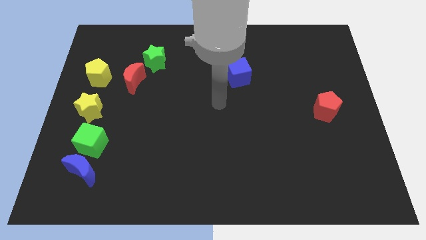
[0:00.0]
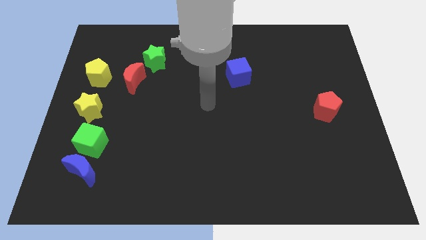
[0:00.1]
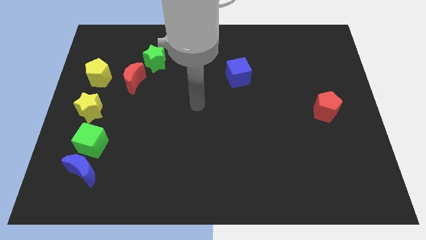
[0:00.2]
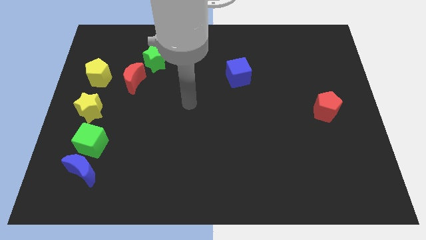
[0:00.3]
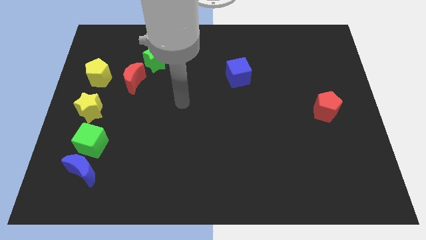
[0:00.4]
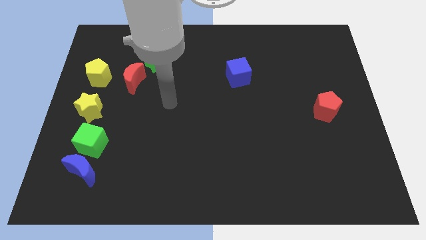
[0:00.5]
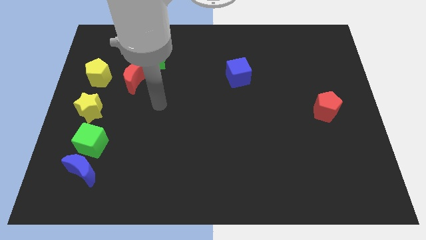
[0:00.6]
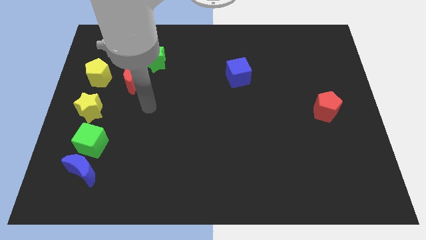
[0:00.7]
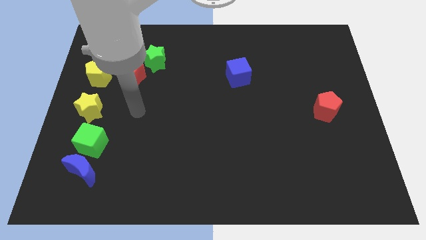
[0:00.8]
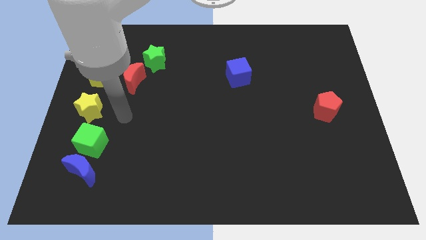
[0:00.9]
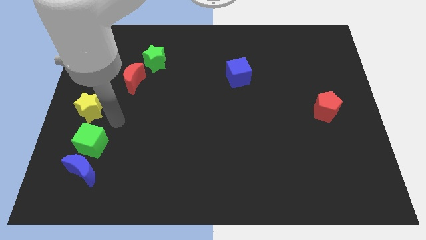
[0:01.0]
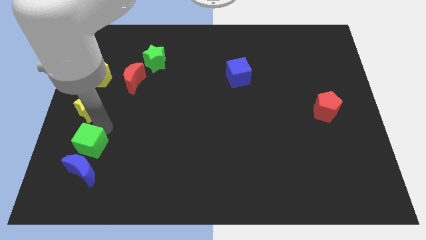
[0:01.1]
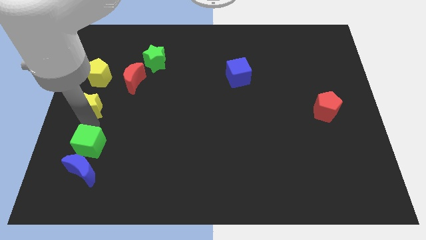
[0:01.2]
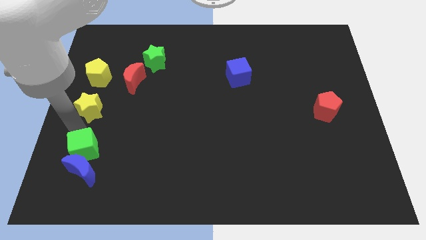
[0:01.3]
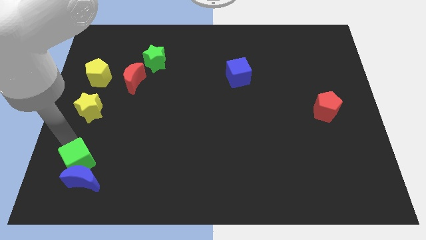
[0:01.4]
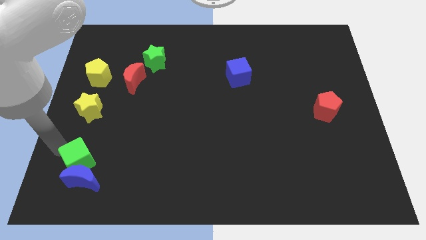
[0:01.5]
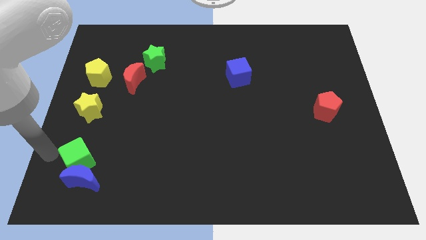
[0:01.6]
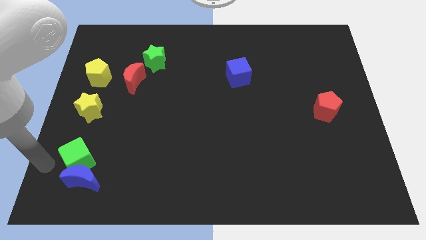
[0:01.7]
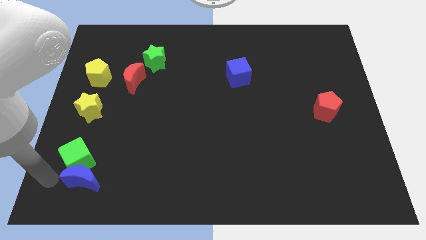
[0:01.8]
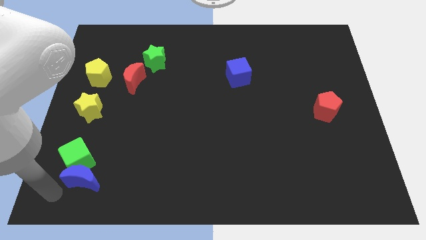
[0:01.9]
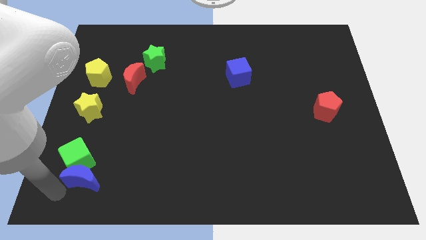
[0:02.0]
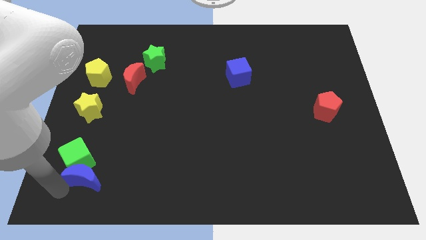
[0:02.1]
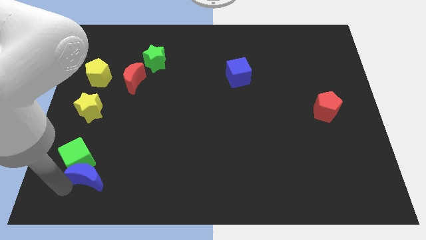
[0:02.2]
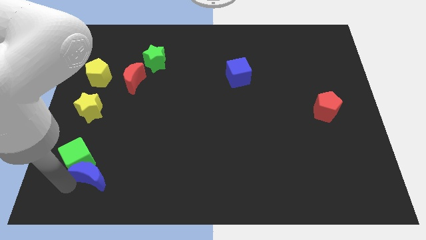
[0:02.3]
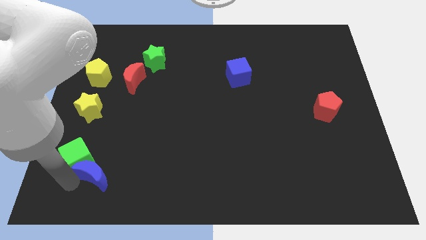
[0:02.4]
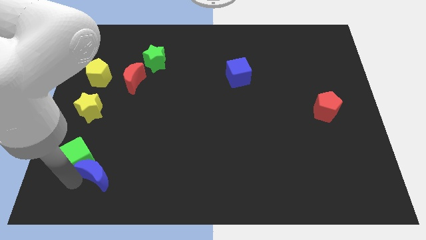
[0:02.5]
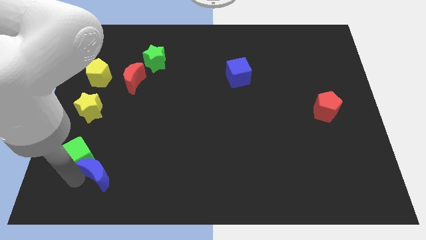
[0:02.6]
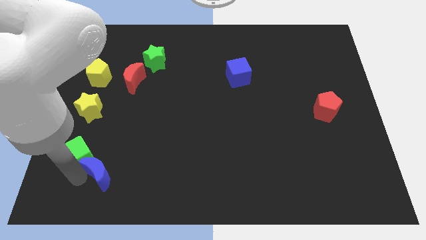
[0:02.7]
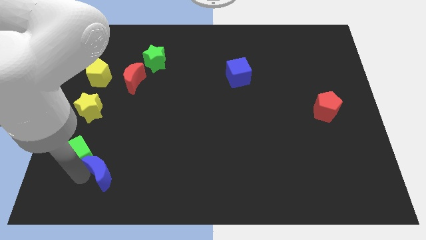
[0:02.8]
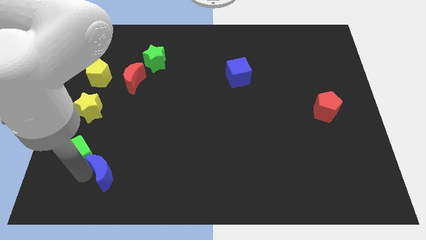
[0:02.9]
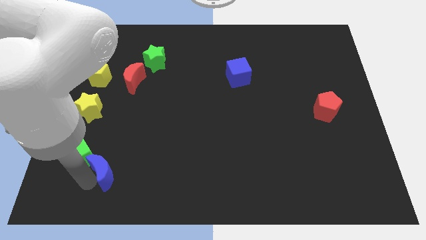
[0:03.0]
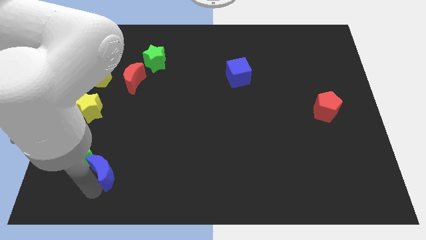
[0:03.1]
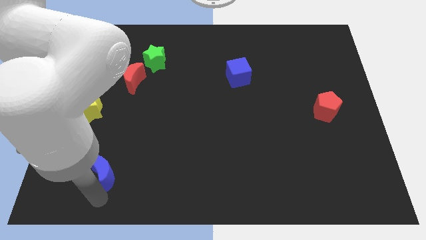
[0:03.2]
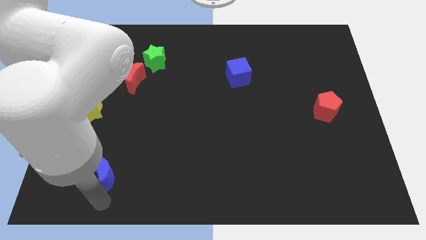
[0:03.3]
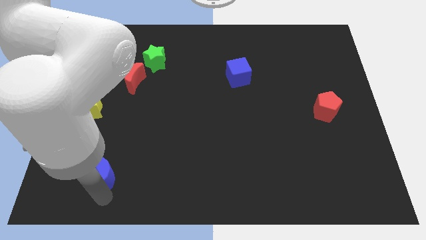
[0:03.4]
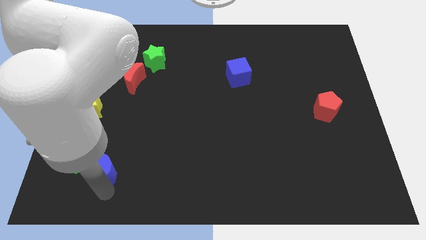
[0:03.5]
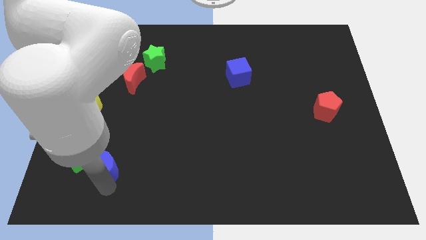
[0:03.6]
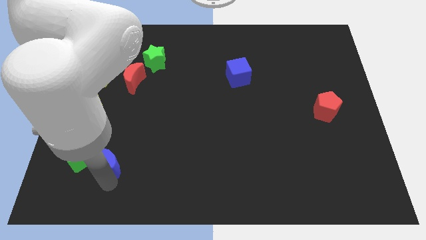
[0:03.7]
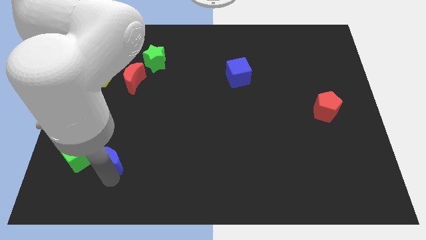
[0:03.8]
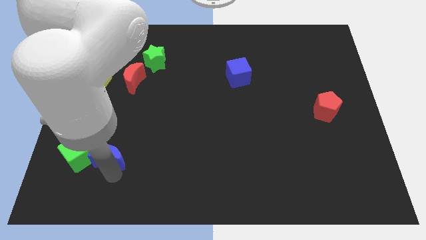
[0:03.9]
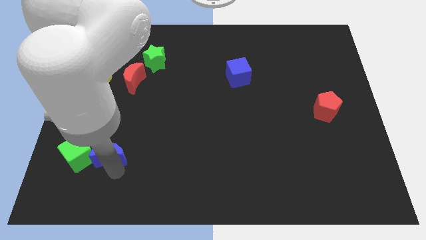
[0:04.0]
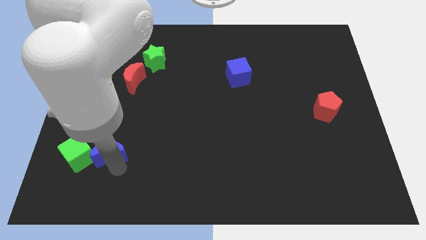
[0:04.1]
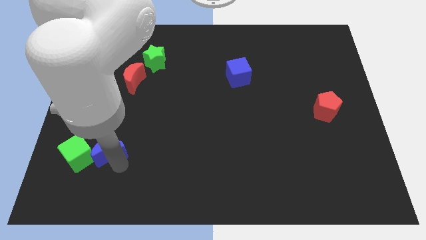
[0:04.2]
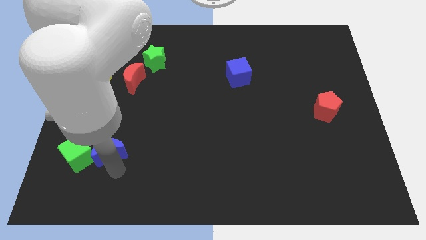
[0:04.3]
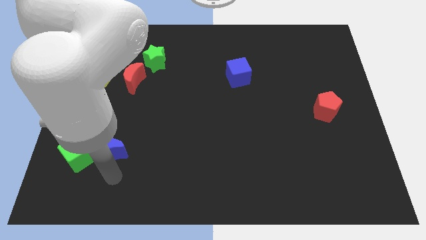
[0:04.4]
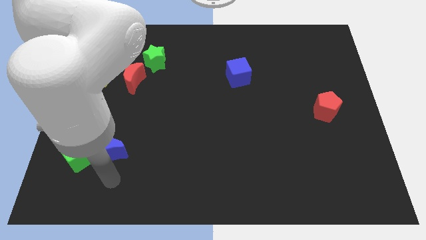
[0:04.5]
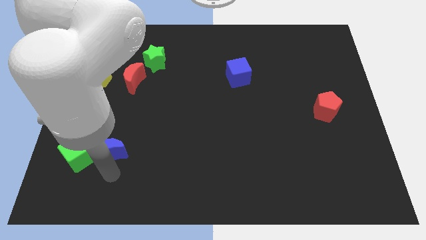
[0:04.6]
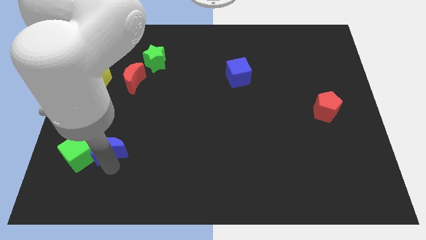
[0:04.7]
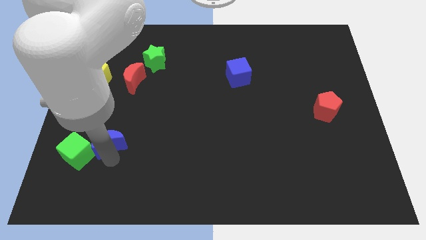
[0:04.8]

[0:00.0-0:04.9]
push the blue moon diagonally down and to the right of the yellow star

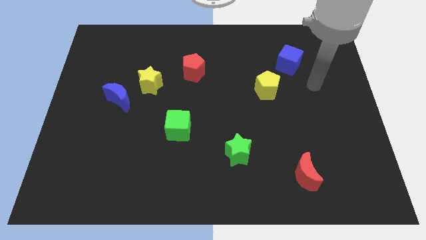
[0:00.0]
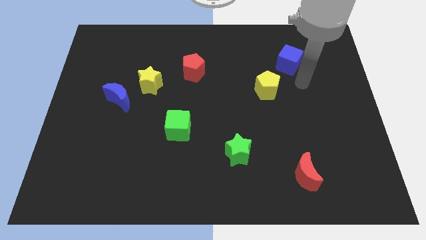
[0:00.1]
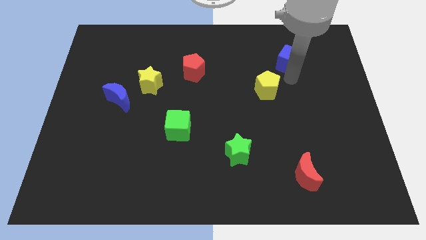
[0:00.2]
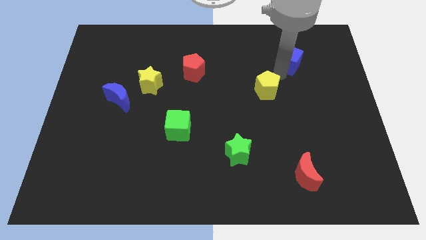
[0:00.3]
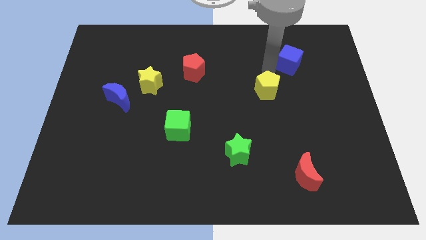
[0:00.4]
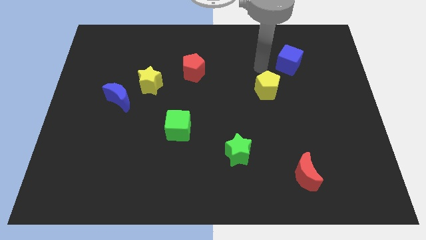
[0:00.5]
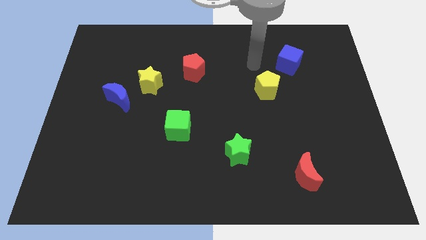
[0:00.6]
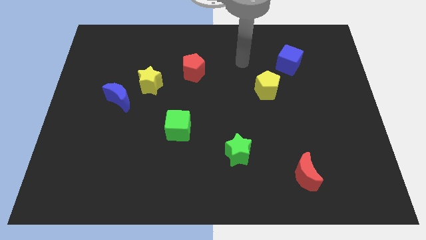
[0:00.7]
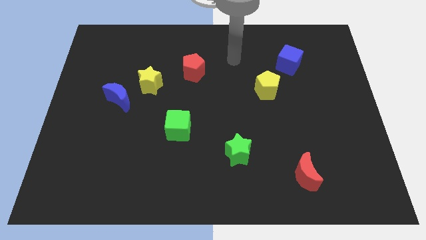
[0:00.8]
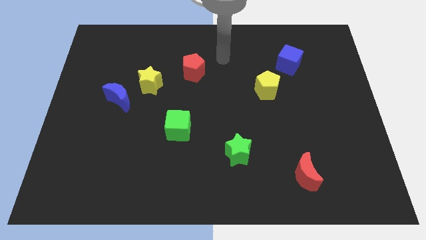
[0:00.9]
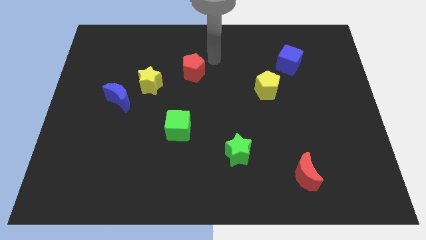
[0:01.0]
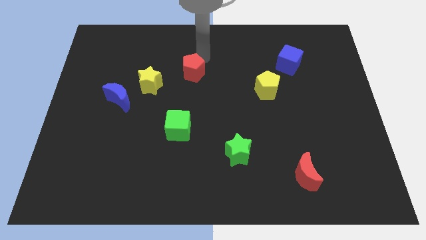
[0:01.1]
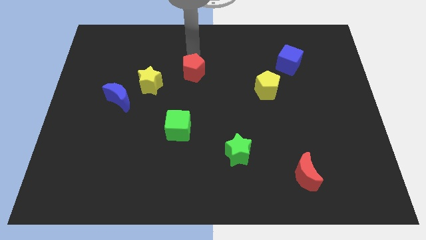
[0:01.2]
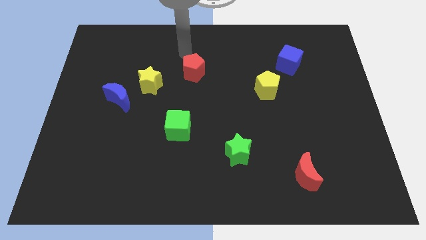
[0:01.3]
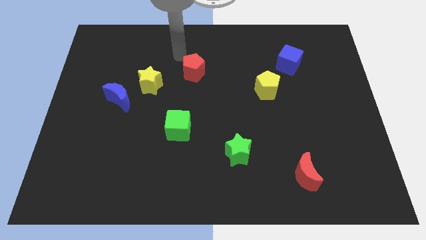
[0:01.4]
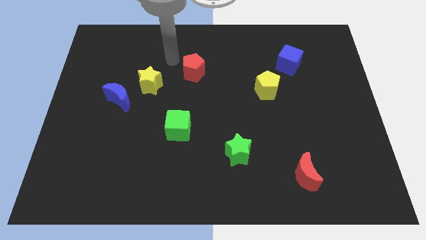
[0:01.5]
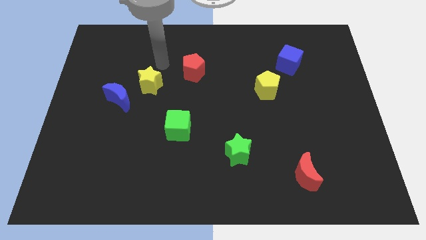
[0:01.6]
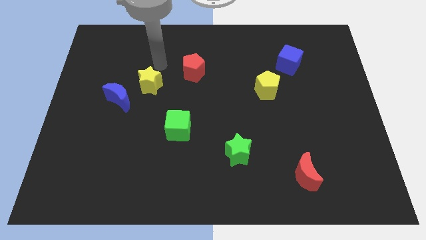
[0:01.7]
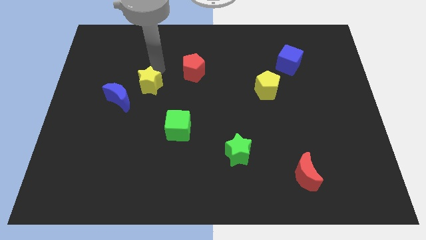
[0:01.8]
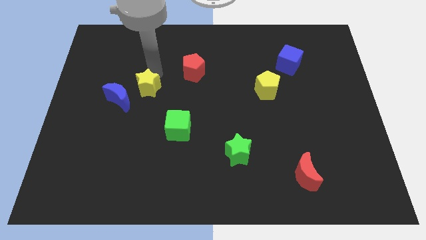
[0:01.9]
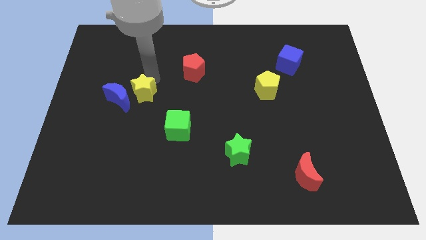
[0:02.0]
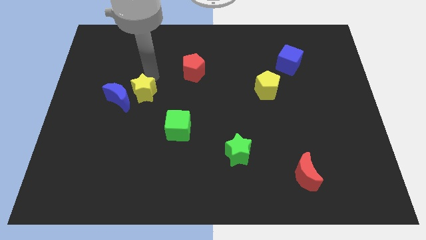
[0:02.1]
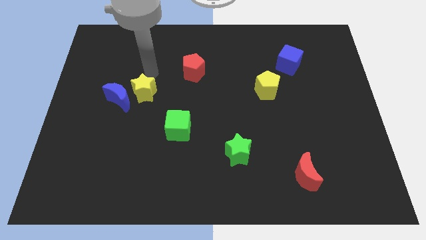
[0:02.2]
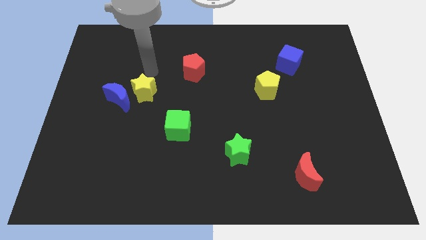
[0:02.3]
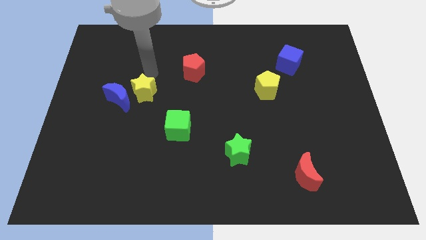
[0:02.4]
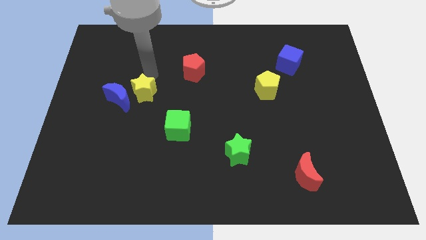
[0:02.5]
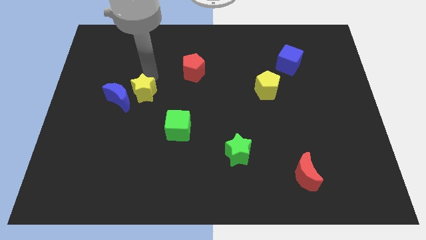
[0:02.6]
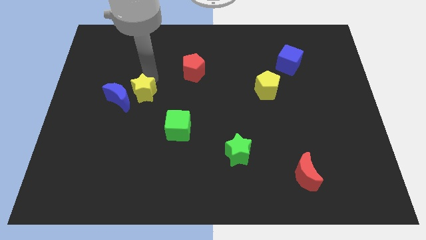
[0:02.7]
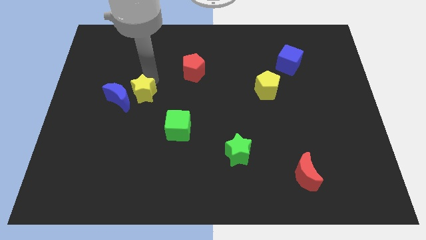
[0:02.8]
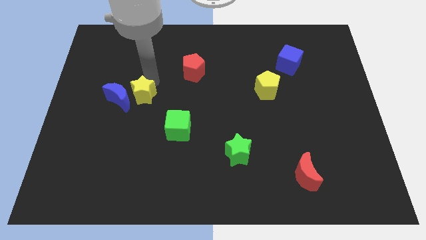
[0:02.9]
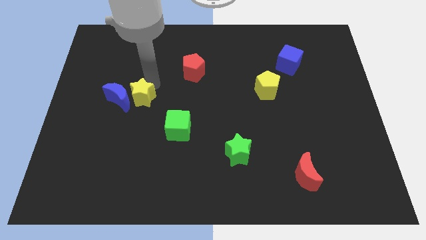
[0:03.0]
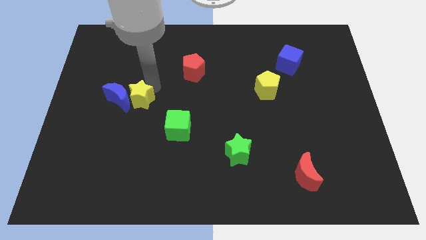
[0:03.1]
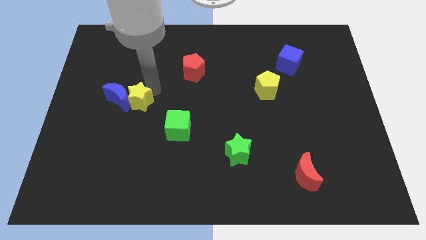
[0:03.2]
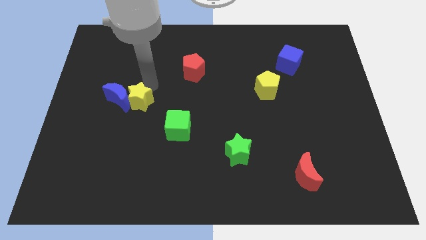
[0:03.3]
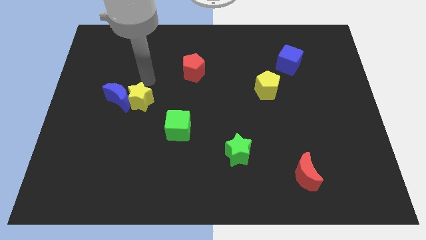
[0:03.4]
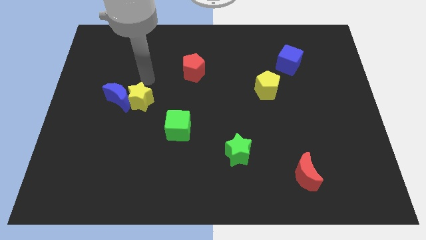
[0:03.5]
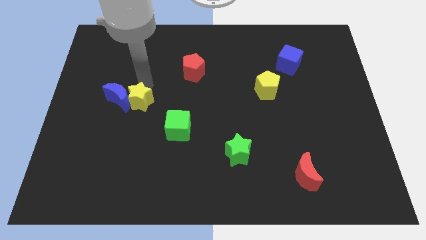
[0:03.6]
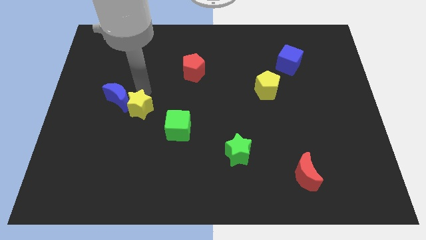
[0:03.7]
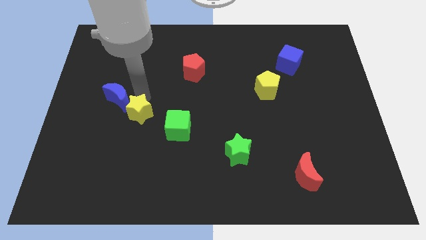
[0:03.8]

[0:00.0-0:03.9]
push the yellow star just left of the green cube
